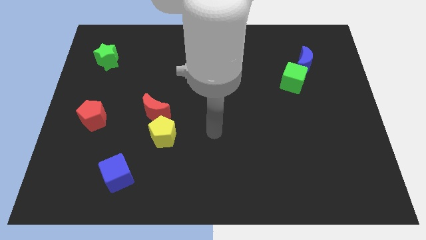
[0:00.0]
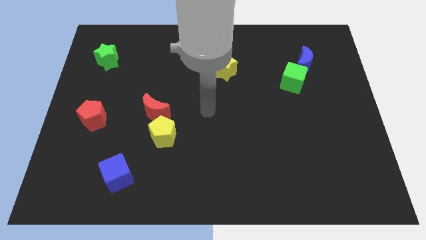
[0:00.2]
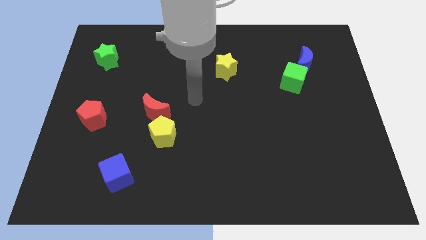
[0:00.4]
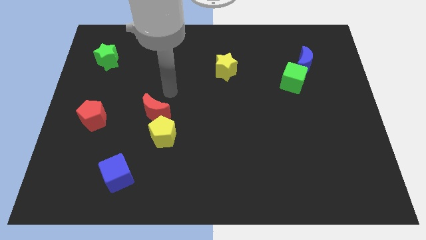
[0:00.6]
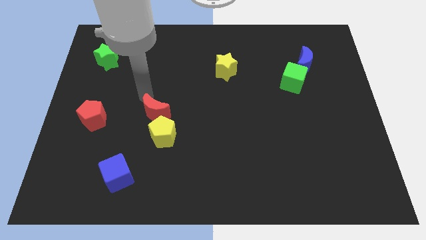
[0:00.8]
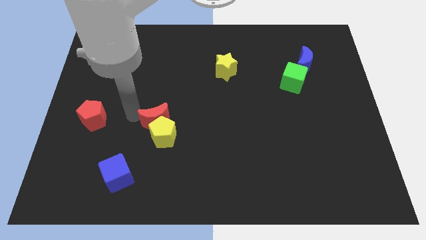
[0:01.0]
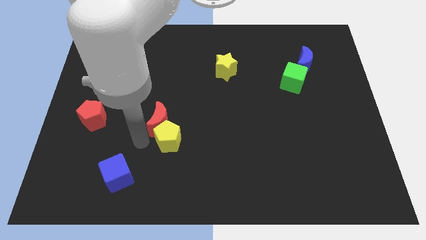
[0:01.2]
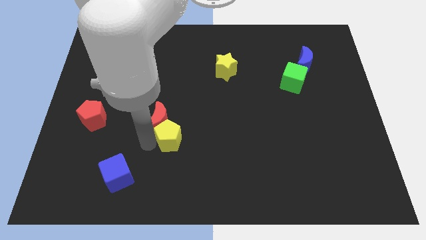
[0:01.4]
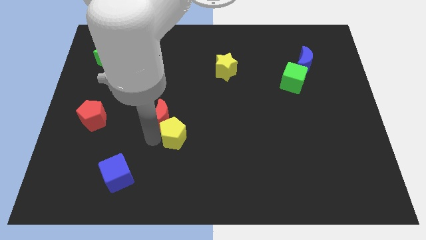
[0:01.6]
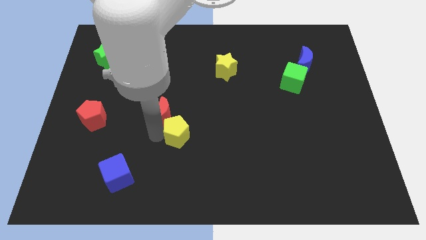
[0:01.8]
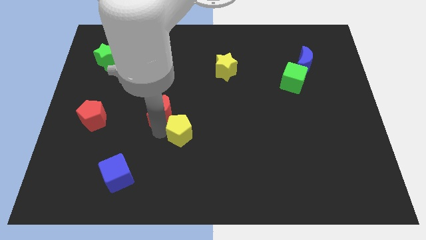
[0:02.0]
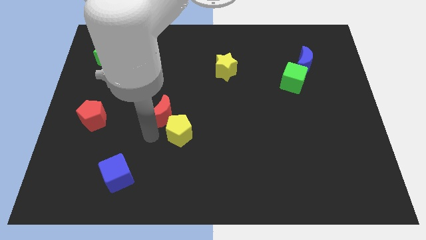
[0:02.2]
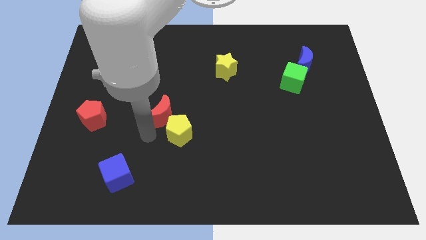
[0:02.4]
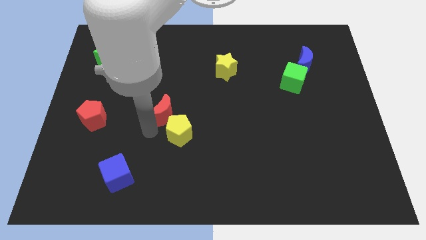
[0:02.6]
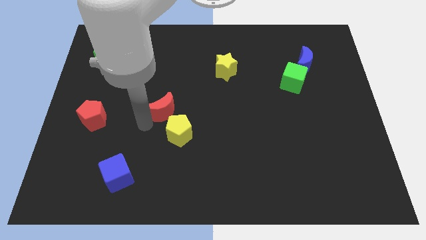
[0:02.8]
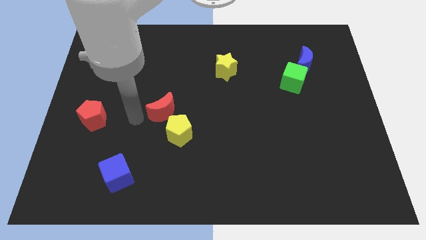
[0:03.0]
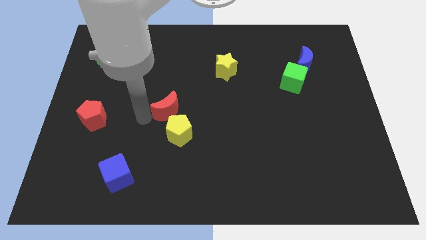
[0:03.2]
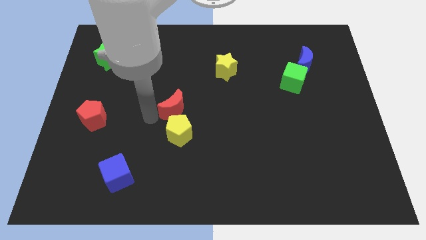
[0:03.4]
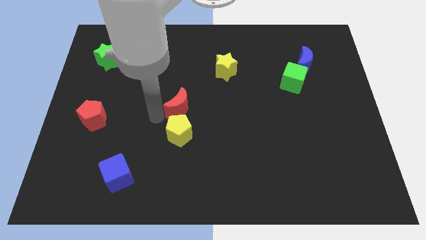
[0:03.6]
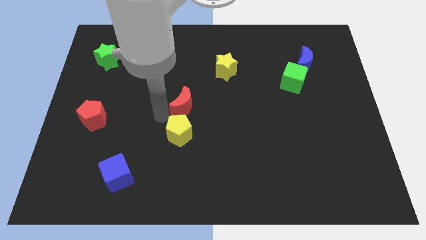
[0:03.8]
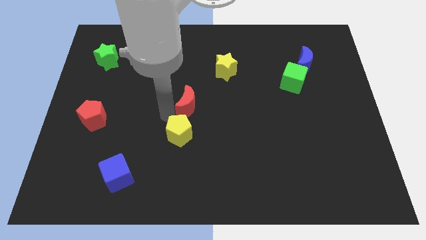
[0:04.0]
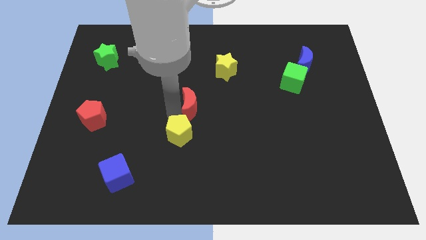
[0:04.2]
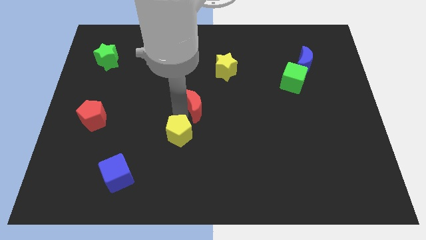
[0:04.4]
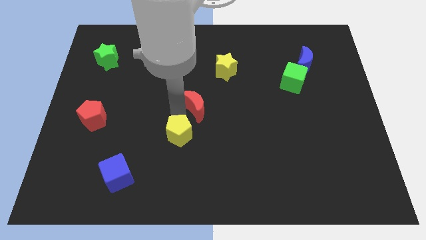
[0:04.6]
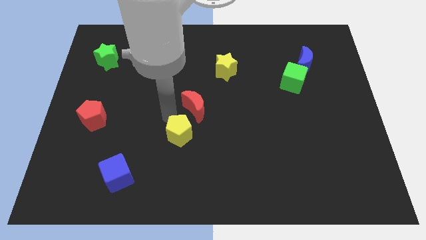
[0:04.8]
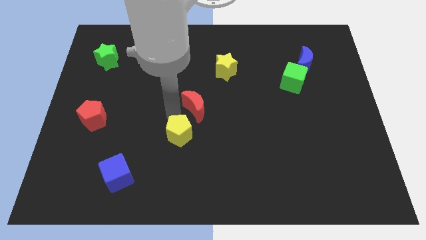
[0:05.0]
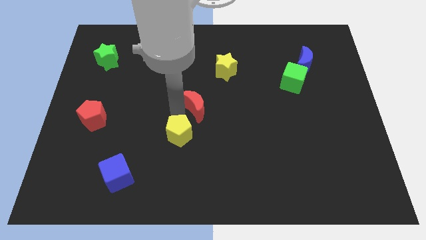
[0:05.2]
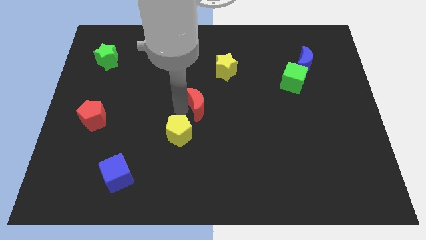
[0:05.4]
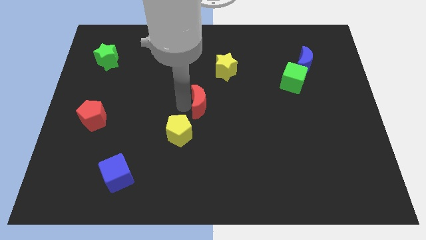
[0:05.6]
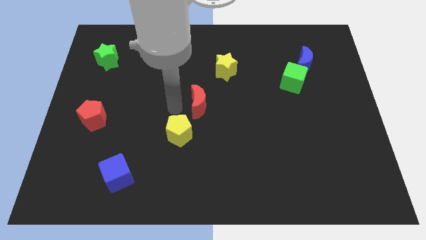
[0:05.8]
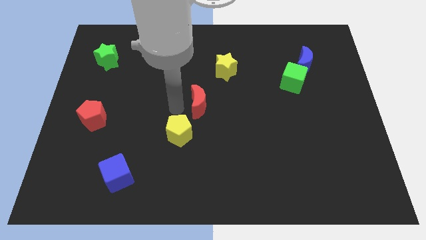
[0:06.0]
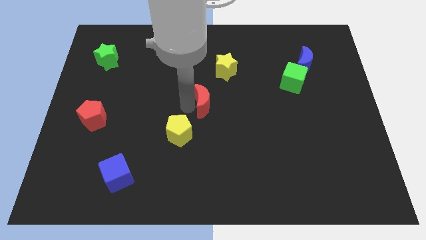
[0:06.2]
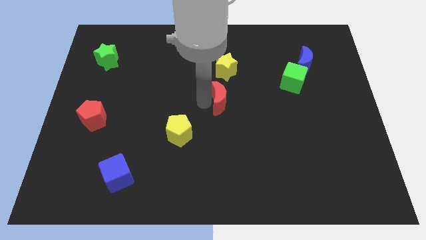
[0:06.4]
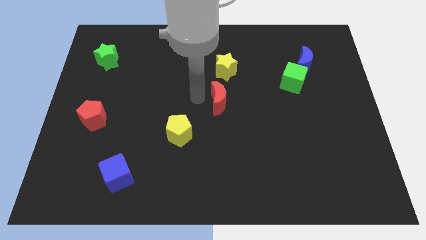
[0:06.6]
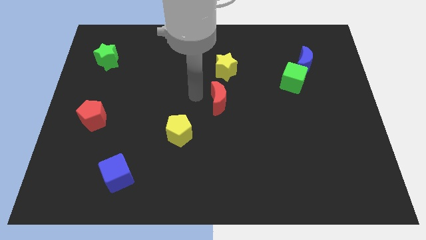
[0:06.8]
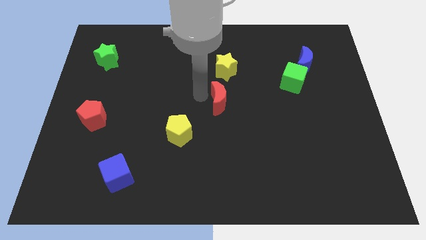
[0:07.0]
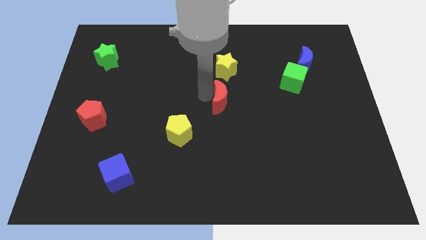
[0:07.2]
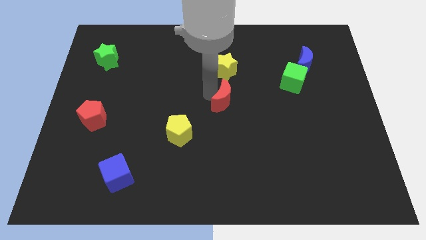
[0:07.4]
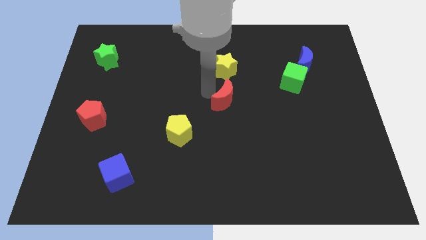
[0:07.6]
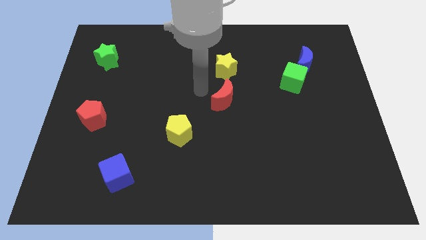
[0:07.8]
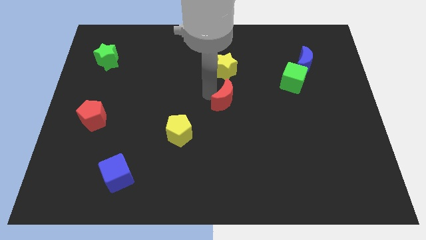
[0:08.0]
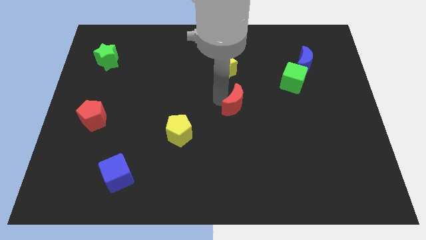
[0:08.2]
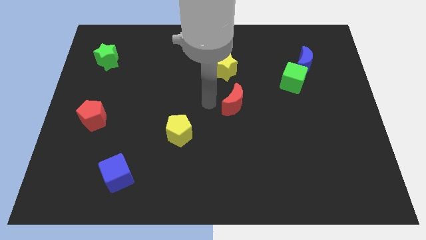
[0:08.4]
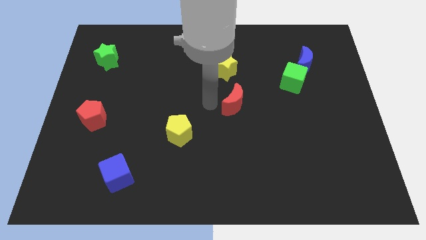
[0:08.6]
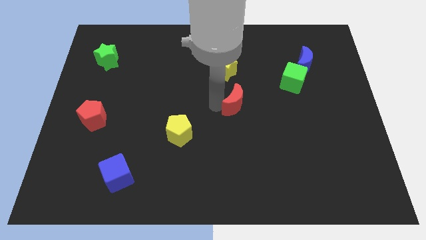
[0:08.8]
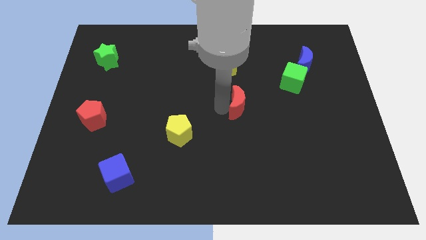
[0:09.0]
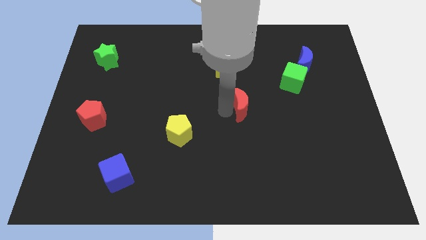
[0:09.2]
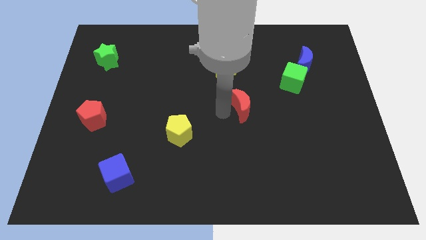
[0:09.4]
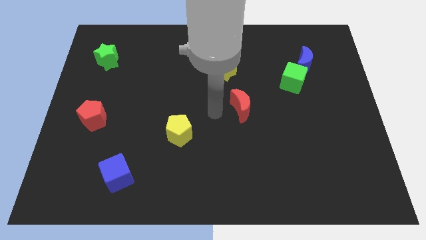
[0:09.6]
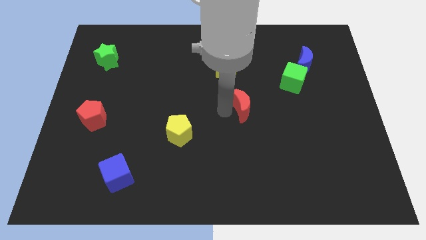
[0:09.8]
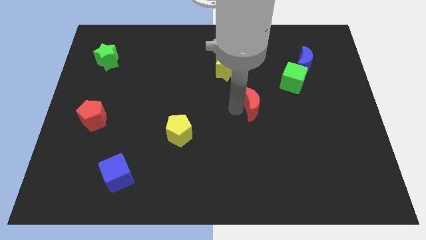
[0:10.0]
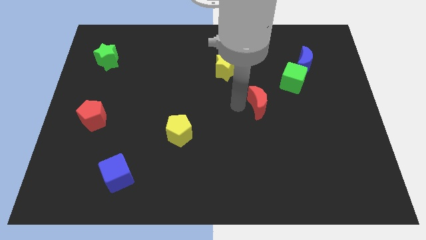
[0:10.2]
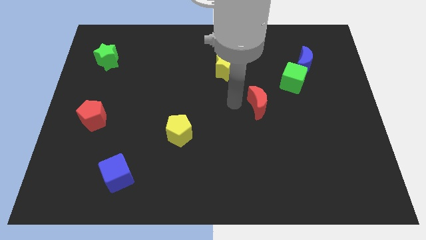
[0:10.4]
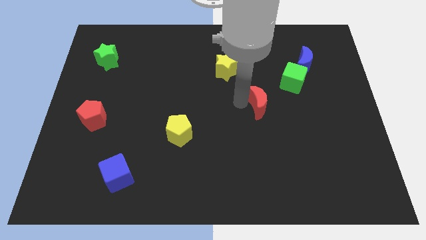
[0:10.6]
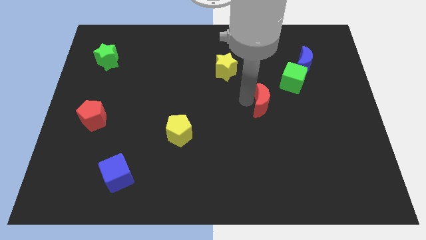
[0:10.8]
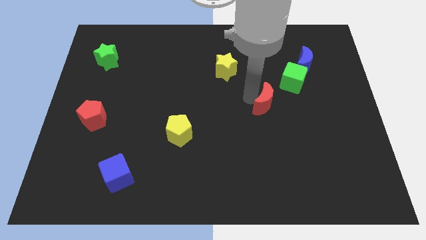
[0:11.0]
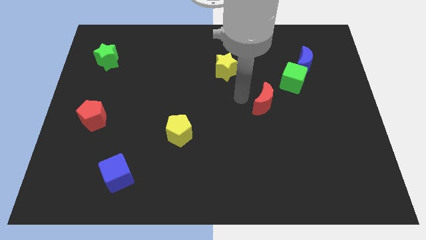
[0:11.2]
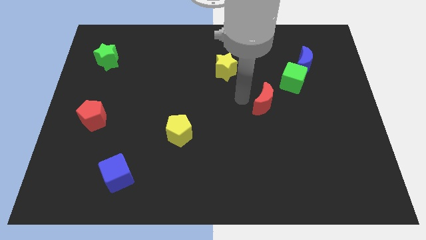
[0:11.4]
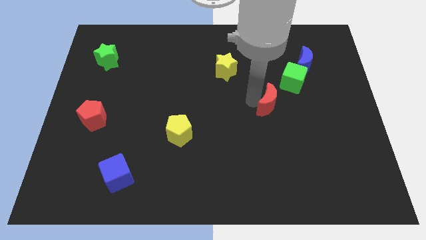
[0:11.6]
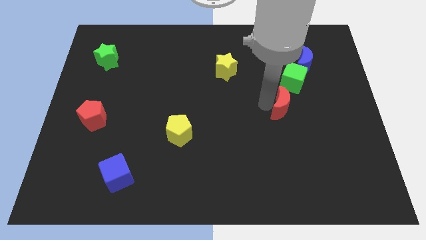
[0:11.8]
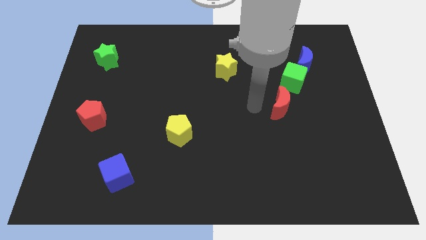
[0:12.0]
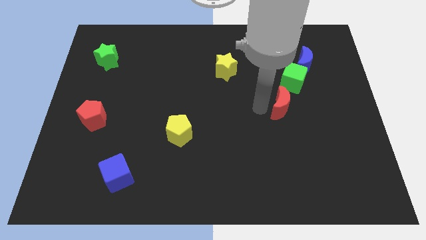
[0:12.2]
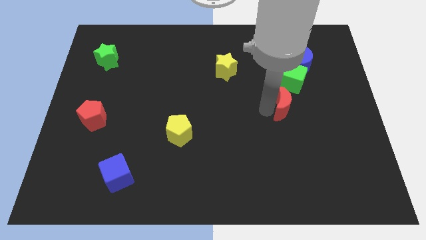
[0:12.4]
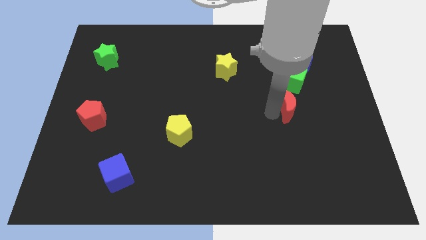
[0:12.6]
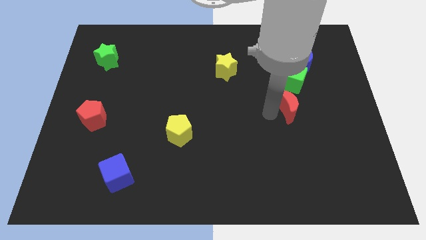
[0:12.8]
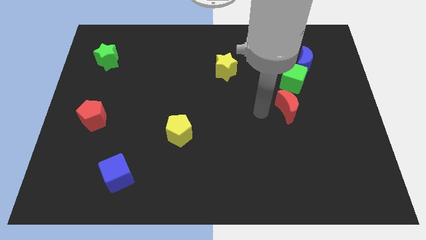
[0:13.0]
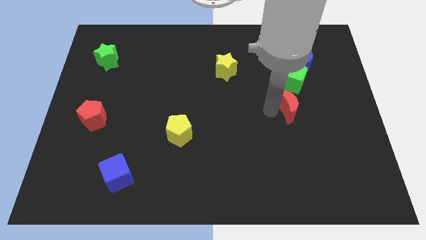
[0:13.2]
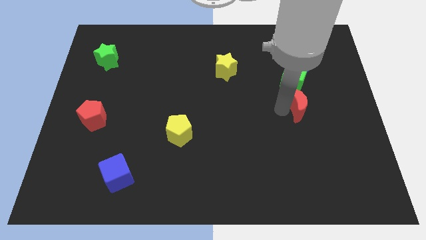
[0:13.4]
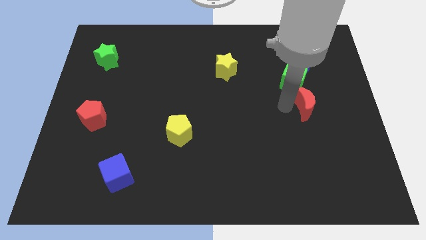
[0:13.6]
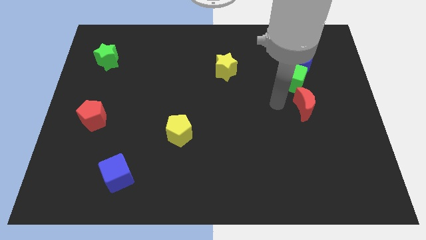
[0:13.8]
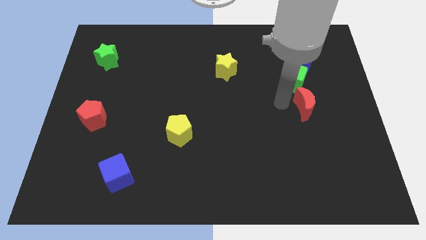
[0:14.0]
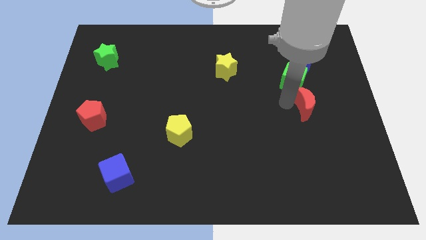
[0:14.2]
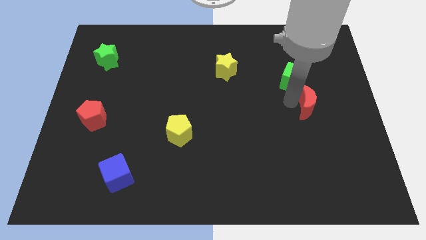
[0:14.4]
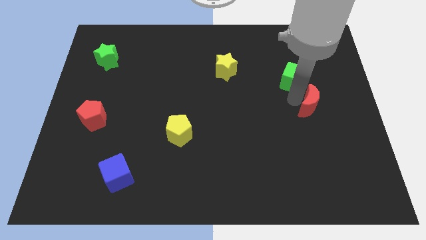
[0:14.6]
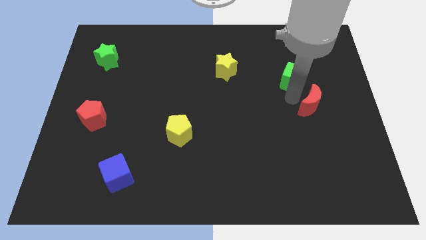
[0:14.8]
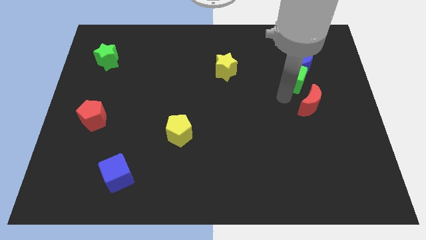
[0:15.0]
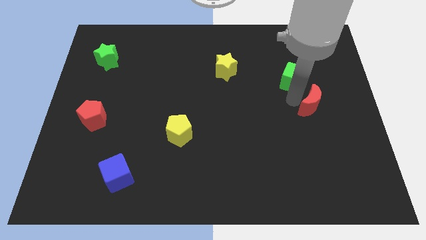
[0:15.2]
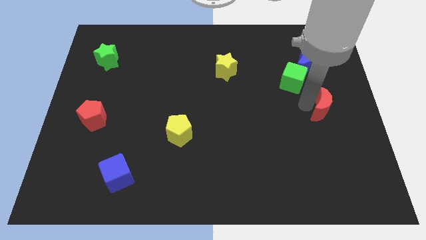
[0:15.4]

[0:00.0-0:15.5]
move the red moon to the center right
